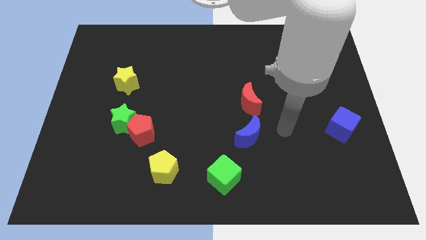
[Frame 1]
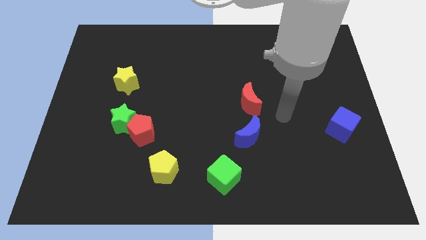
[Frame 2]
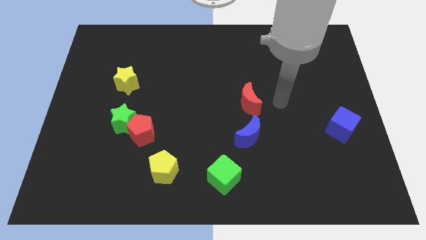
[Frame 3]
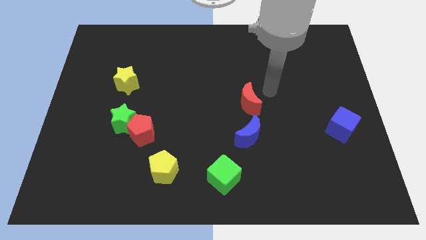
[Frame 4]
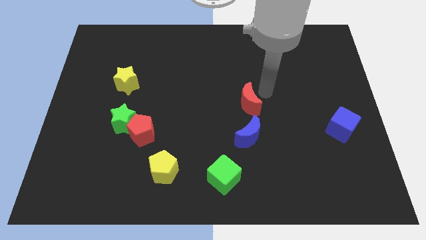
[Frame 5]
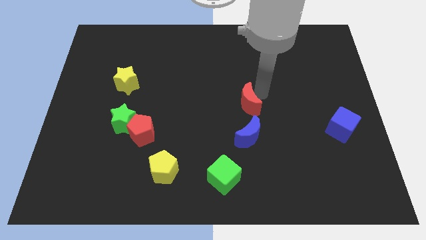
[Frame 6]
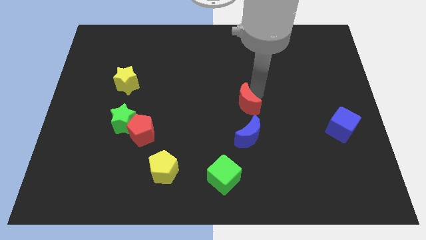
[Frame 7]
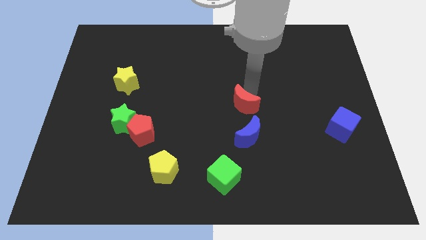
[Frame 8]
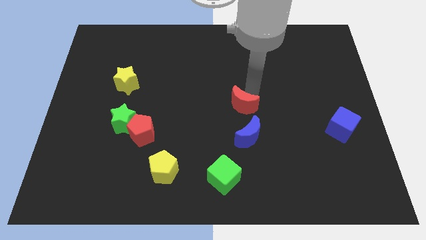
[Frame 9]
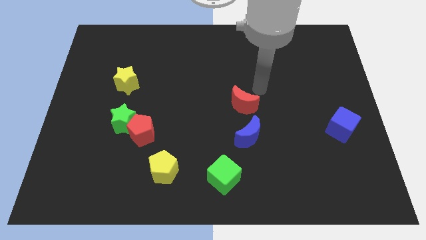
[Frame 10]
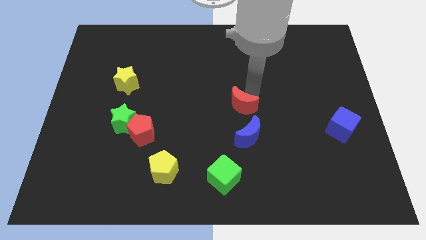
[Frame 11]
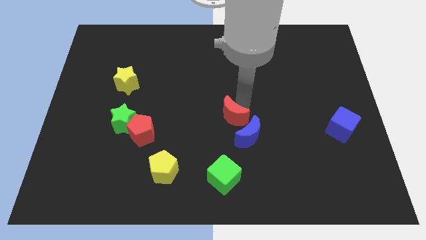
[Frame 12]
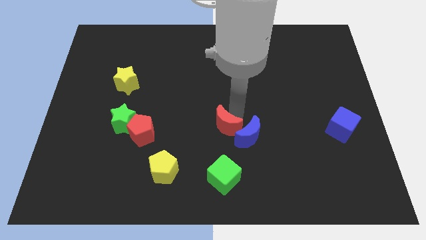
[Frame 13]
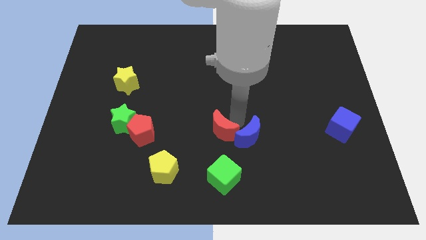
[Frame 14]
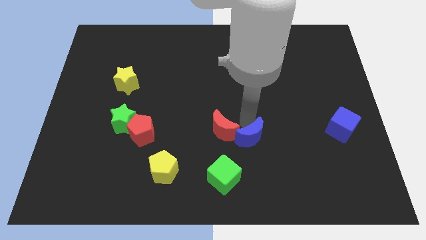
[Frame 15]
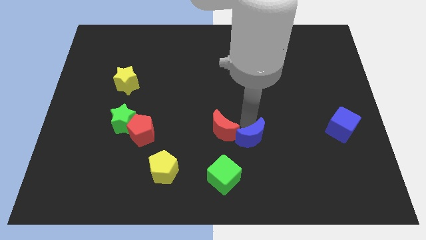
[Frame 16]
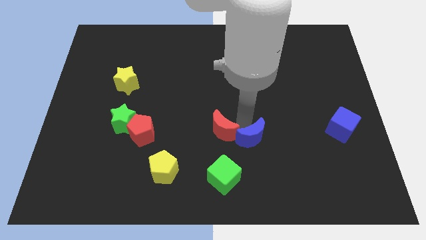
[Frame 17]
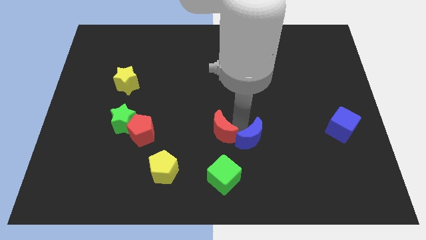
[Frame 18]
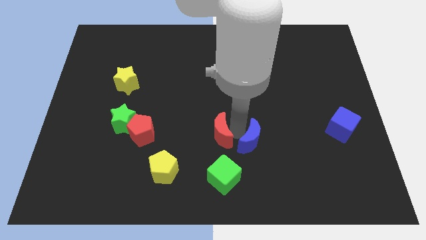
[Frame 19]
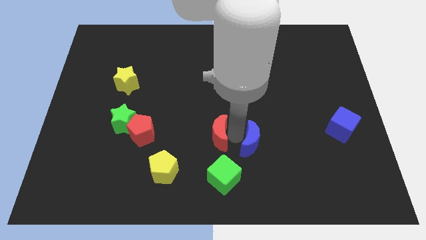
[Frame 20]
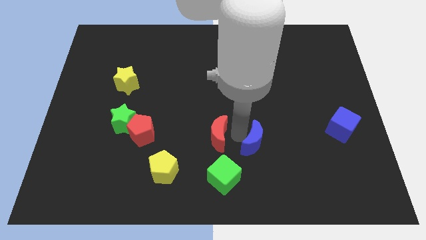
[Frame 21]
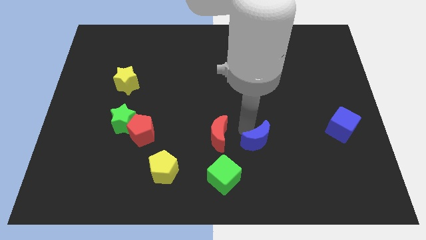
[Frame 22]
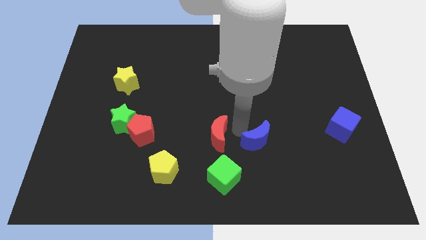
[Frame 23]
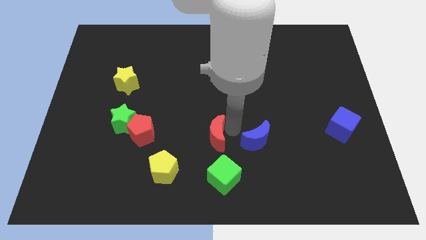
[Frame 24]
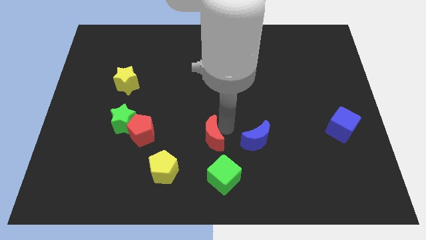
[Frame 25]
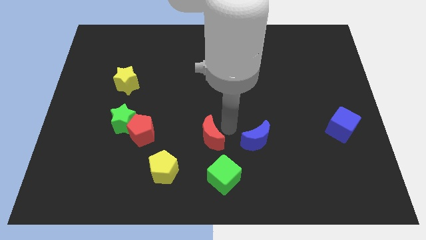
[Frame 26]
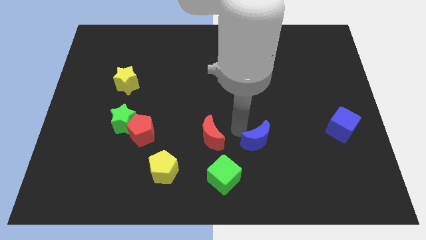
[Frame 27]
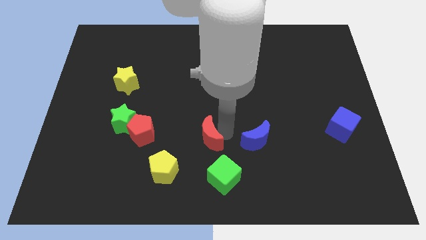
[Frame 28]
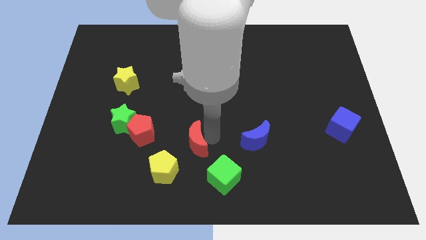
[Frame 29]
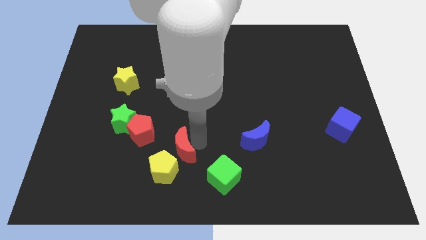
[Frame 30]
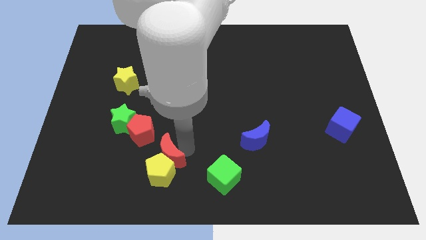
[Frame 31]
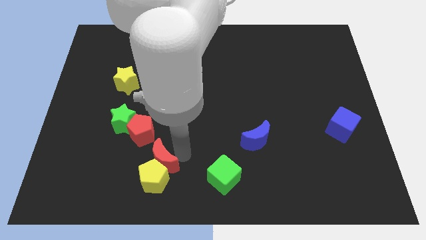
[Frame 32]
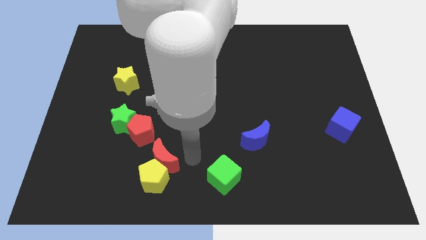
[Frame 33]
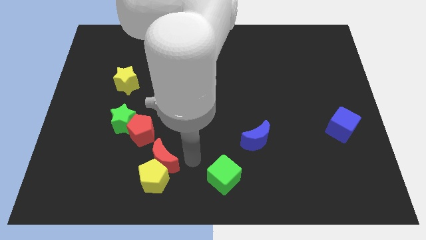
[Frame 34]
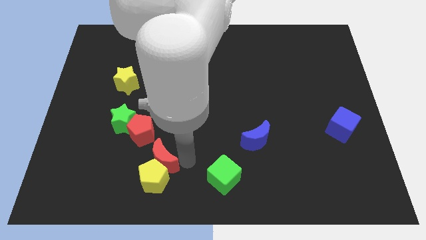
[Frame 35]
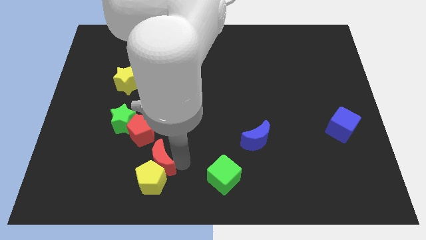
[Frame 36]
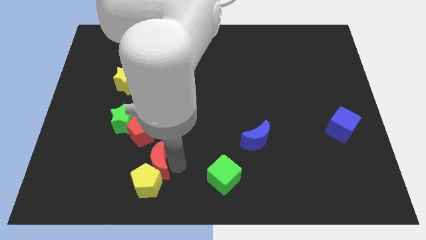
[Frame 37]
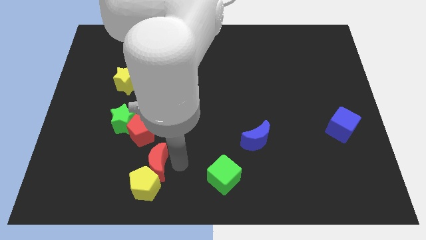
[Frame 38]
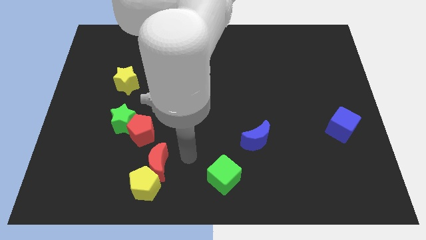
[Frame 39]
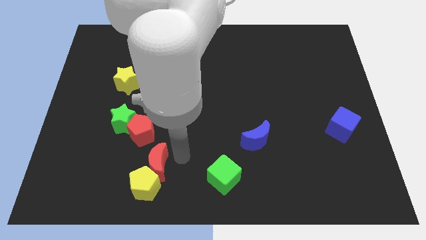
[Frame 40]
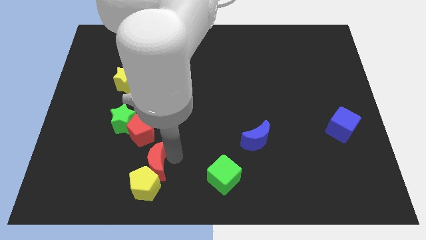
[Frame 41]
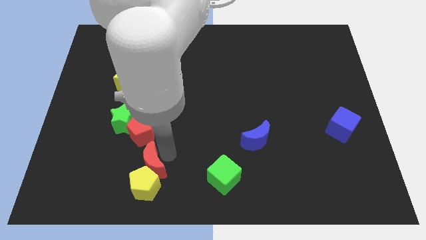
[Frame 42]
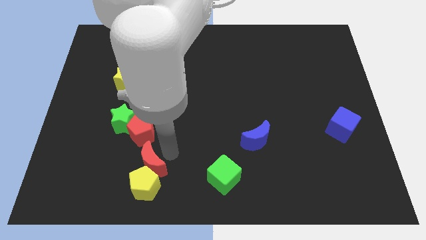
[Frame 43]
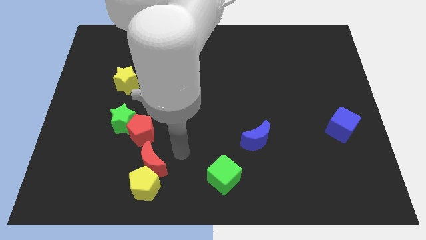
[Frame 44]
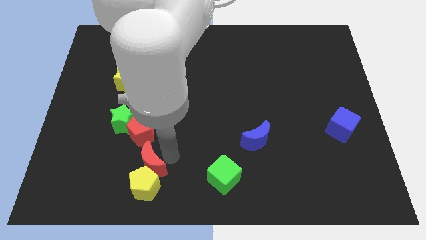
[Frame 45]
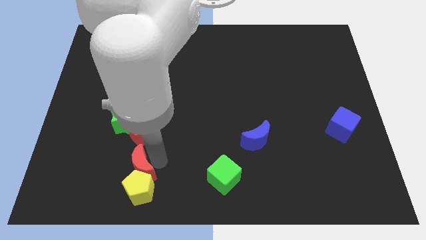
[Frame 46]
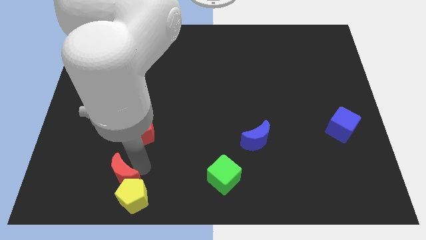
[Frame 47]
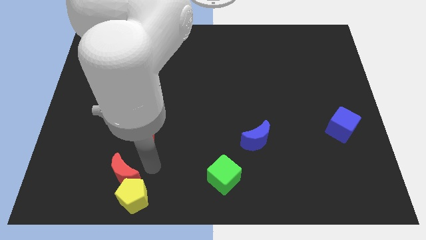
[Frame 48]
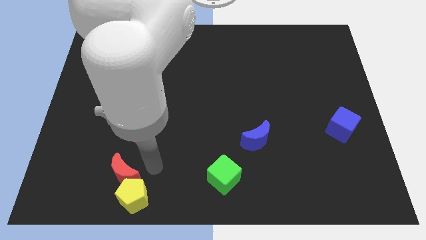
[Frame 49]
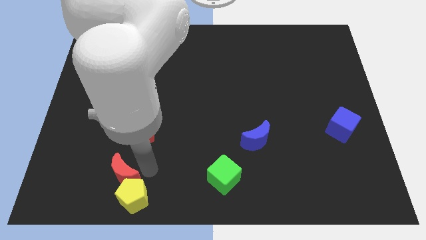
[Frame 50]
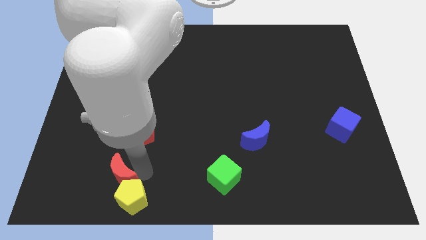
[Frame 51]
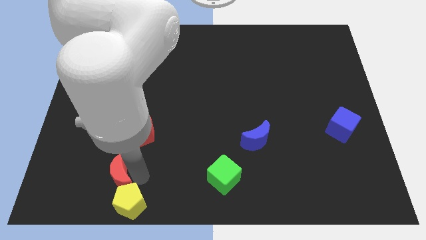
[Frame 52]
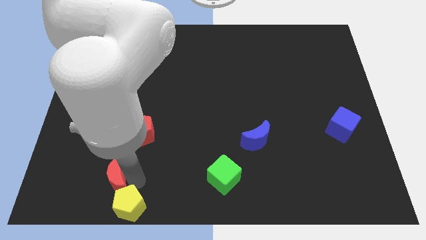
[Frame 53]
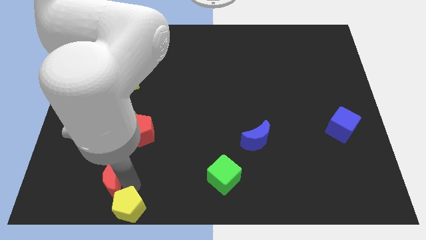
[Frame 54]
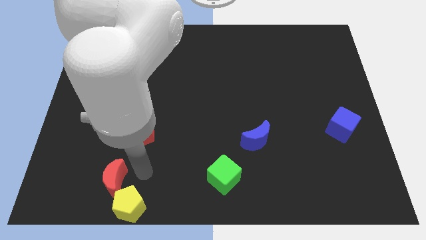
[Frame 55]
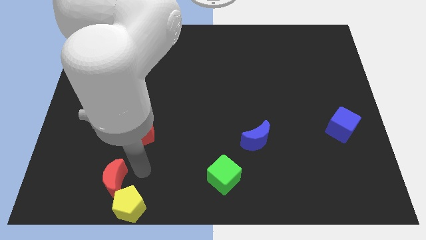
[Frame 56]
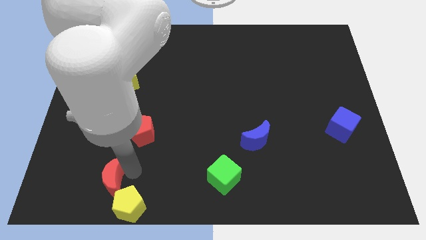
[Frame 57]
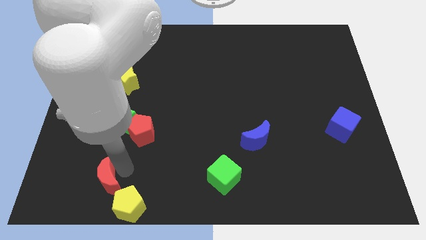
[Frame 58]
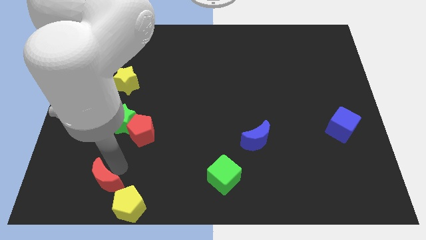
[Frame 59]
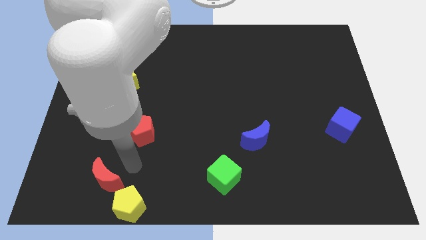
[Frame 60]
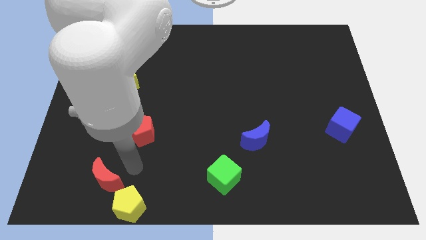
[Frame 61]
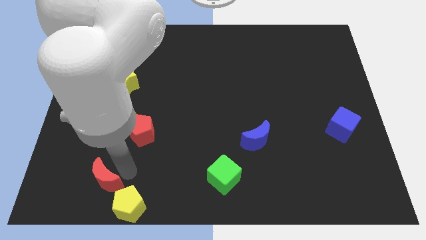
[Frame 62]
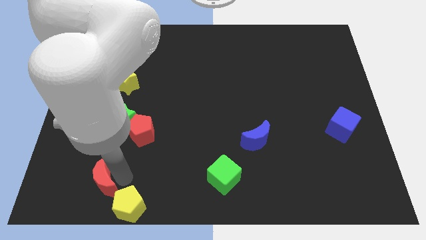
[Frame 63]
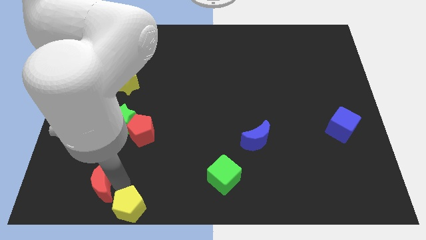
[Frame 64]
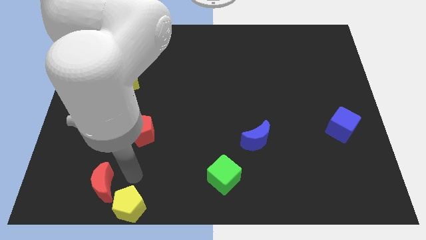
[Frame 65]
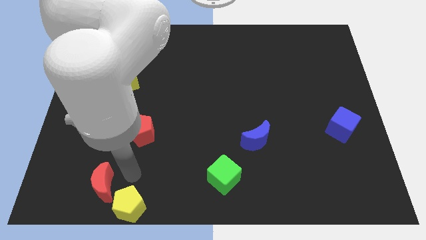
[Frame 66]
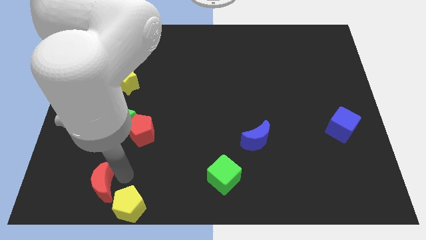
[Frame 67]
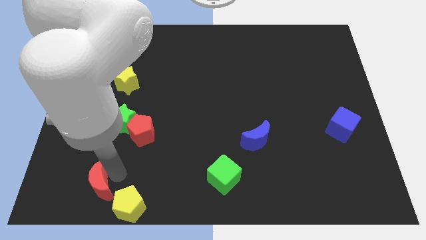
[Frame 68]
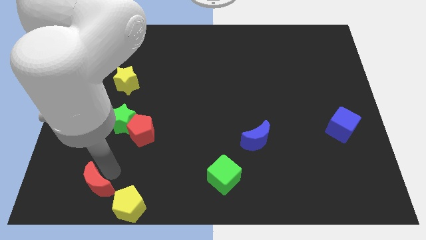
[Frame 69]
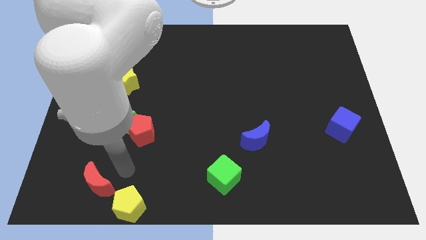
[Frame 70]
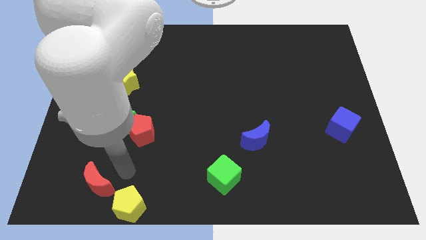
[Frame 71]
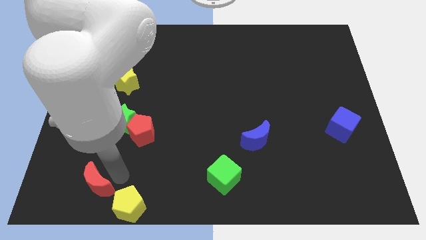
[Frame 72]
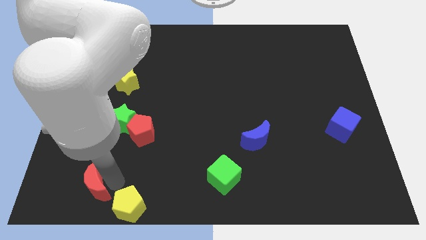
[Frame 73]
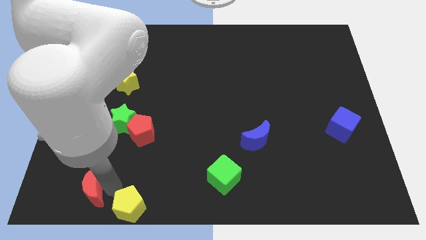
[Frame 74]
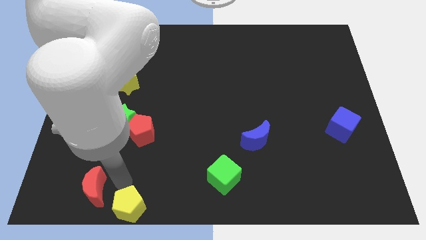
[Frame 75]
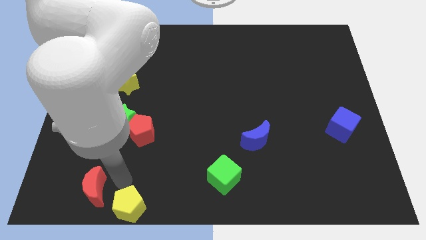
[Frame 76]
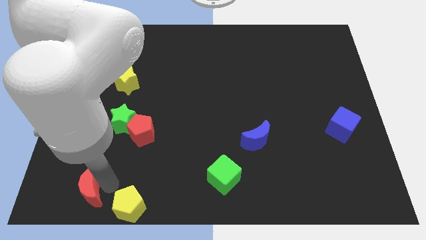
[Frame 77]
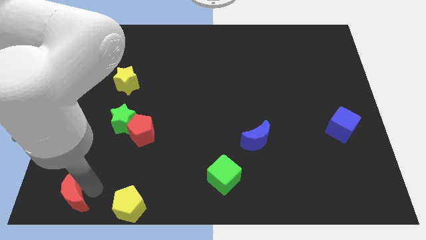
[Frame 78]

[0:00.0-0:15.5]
move the red moon to the bottom left corner
